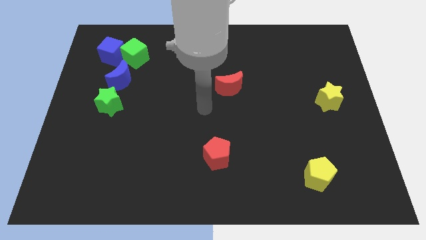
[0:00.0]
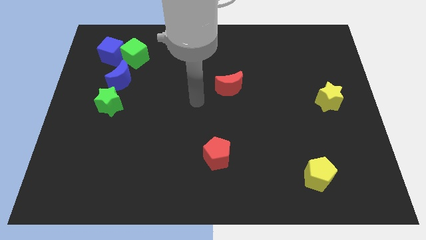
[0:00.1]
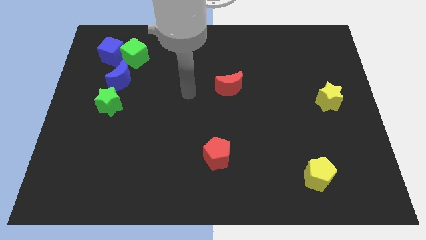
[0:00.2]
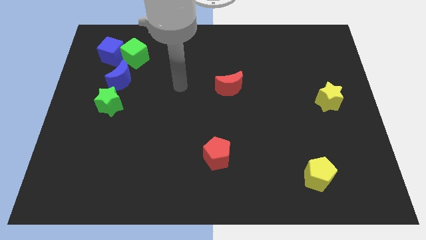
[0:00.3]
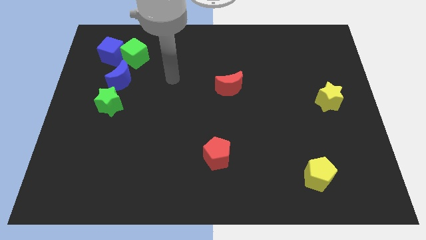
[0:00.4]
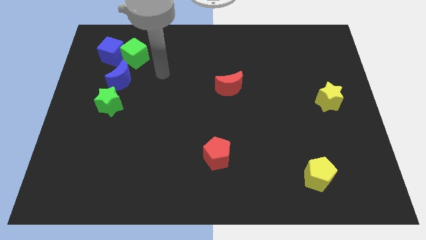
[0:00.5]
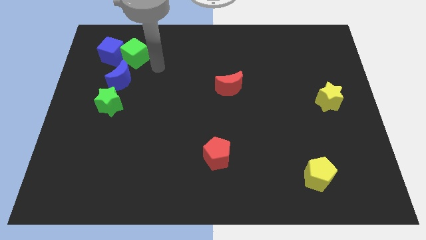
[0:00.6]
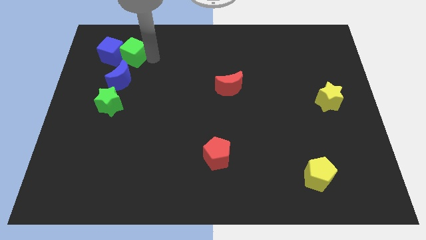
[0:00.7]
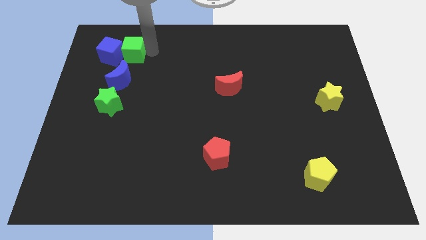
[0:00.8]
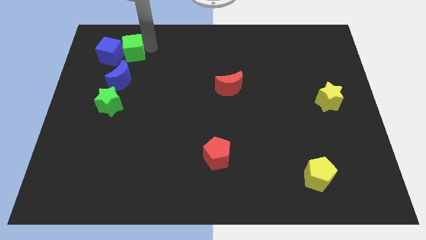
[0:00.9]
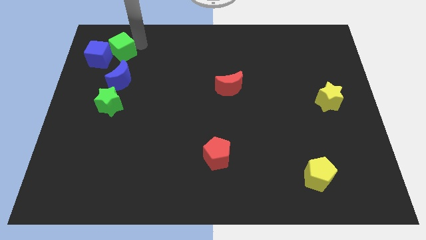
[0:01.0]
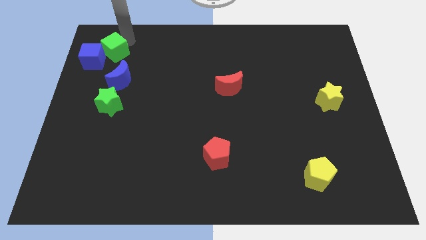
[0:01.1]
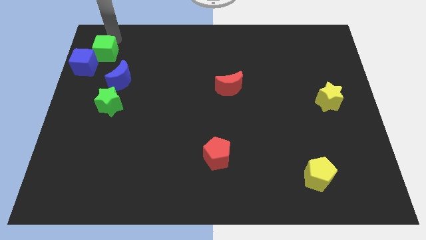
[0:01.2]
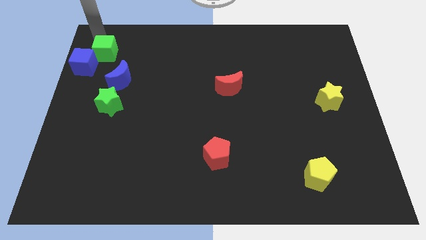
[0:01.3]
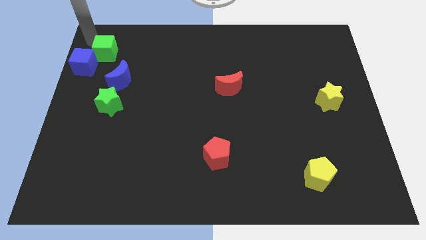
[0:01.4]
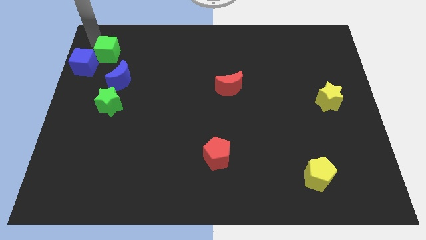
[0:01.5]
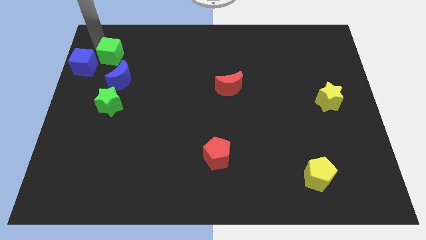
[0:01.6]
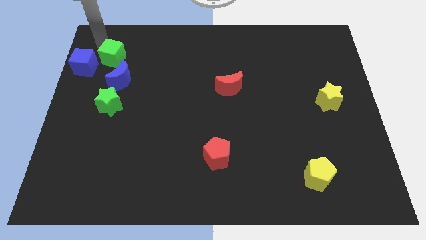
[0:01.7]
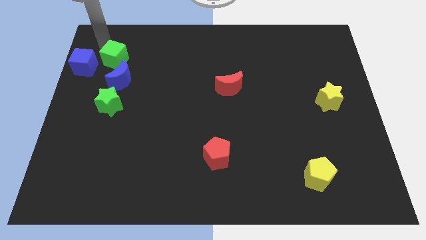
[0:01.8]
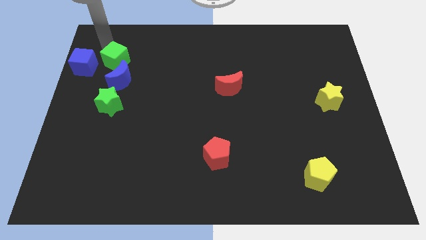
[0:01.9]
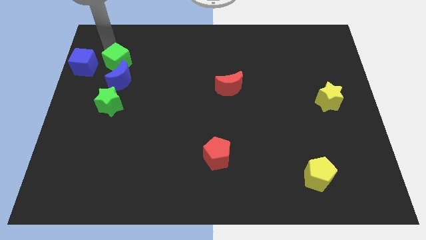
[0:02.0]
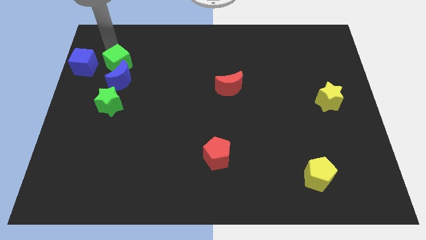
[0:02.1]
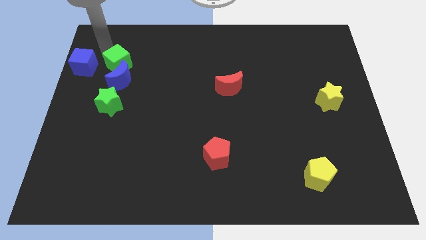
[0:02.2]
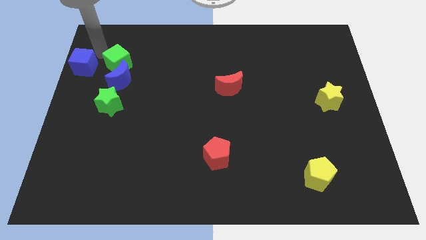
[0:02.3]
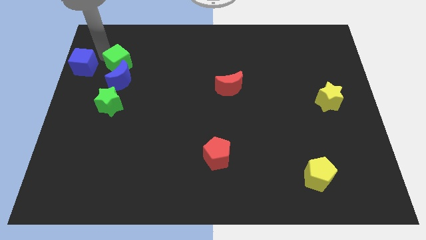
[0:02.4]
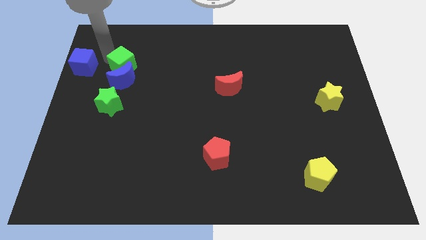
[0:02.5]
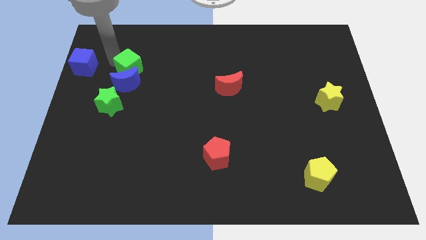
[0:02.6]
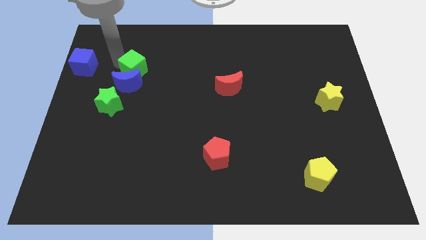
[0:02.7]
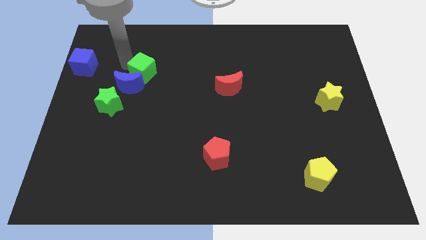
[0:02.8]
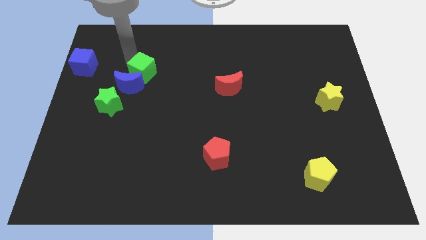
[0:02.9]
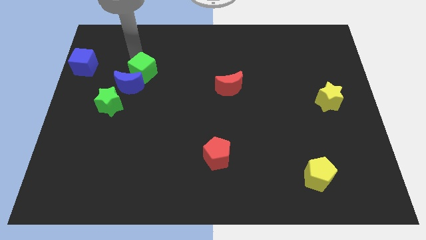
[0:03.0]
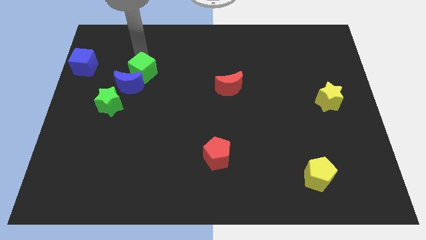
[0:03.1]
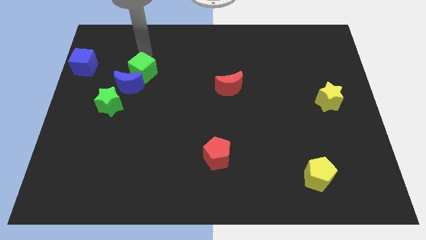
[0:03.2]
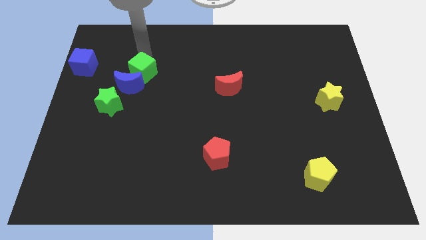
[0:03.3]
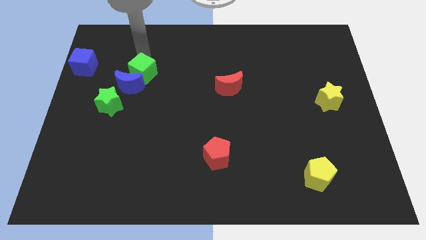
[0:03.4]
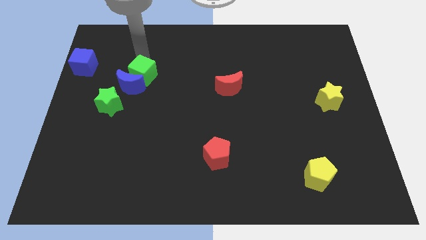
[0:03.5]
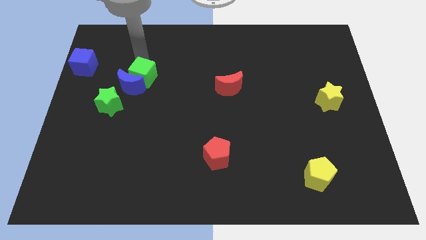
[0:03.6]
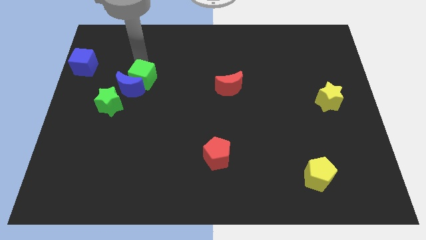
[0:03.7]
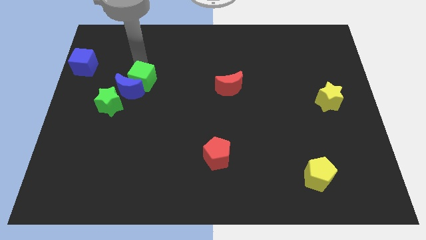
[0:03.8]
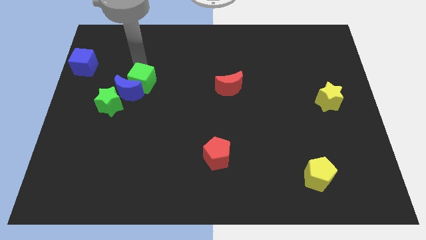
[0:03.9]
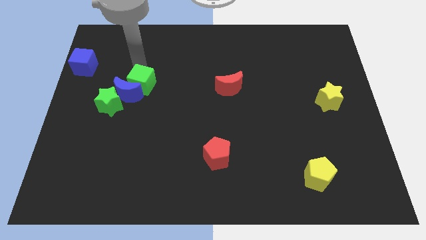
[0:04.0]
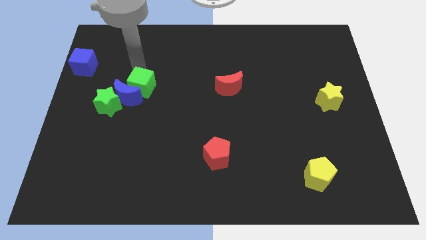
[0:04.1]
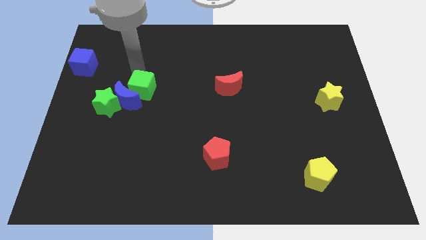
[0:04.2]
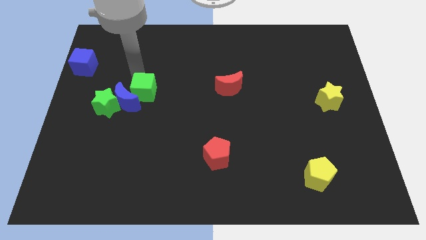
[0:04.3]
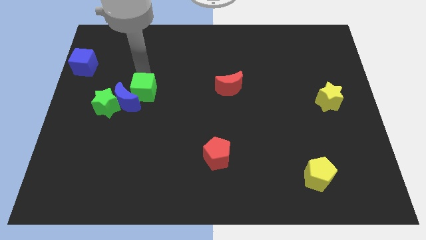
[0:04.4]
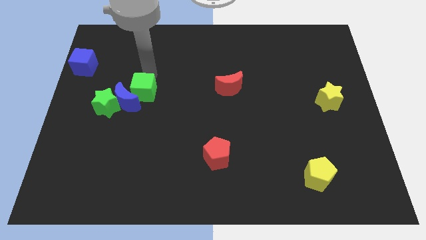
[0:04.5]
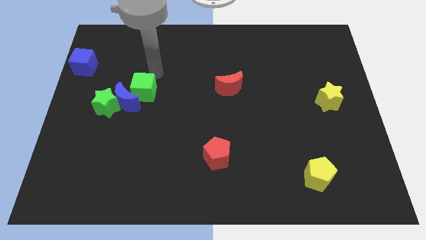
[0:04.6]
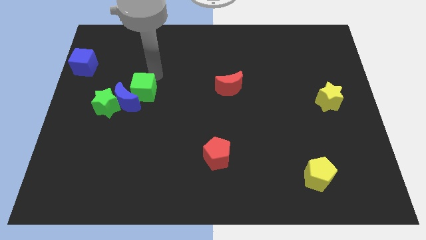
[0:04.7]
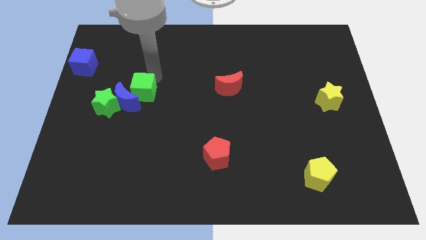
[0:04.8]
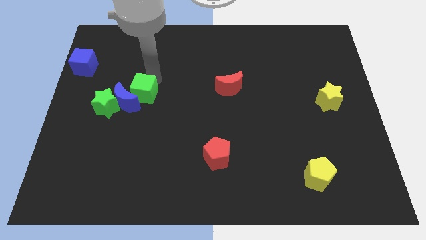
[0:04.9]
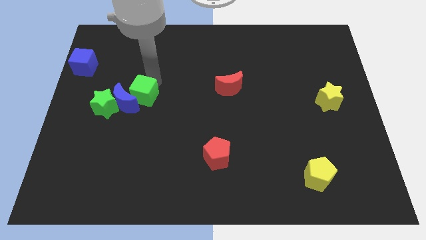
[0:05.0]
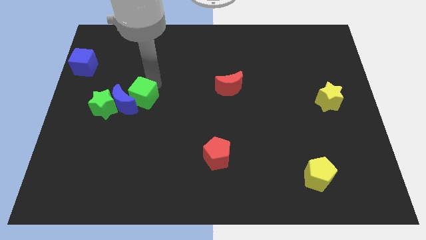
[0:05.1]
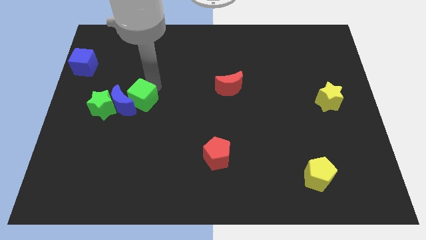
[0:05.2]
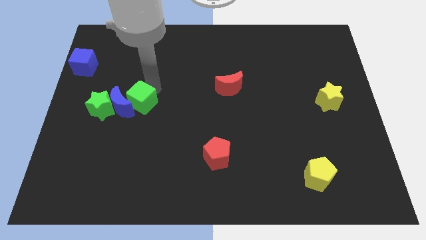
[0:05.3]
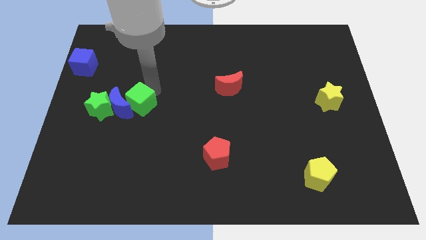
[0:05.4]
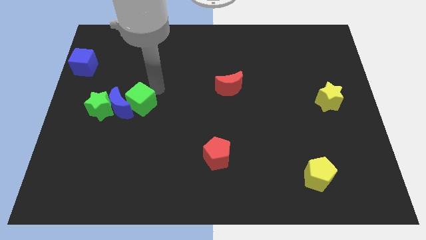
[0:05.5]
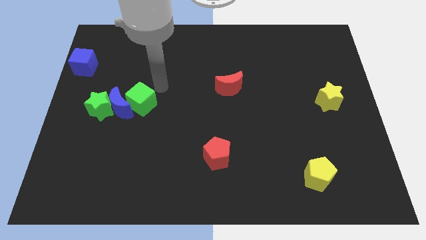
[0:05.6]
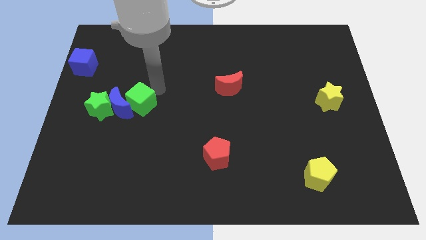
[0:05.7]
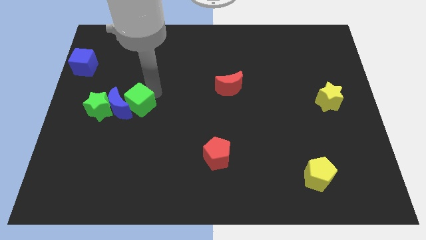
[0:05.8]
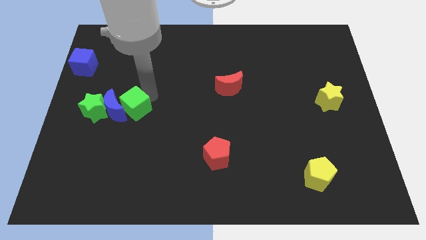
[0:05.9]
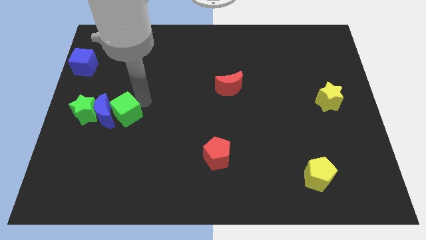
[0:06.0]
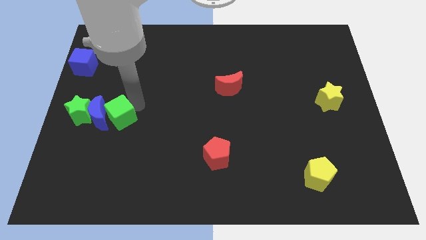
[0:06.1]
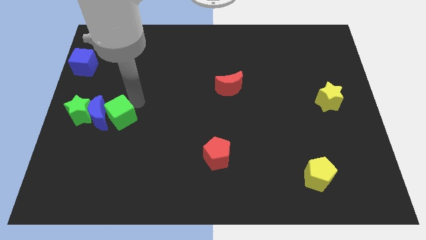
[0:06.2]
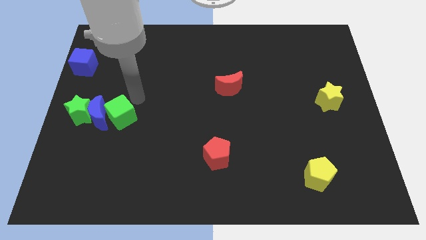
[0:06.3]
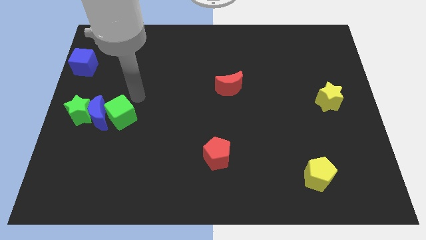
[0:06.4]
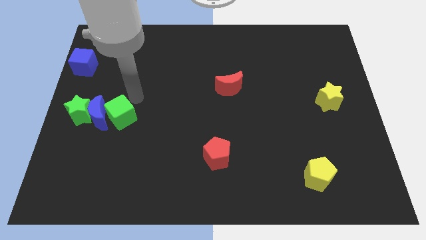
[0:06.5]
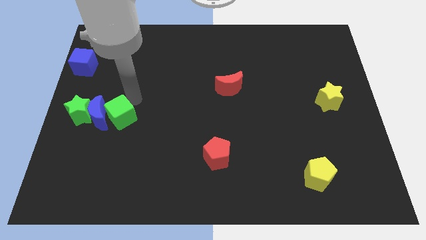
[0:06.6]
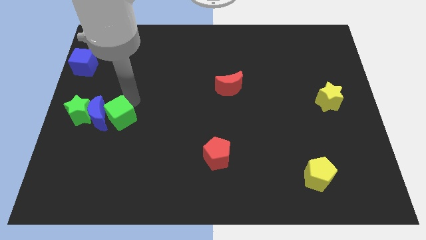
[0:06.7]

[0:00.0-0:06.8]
slide the green cube downwards

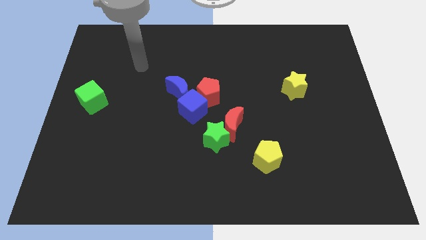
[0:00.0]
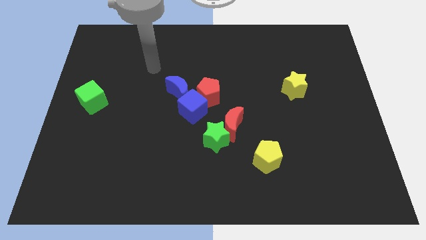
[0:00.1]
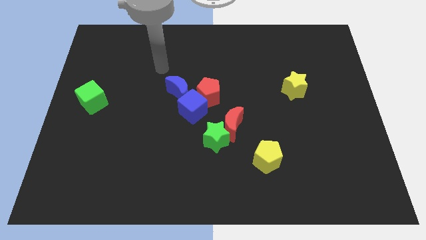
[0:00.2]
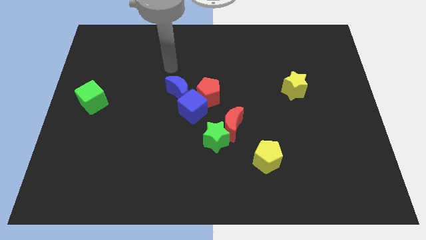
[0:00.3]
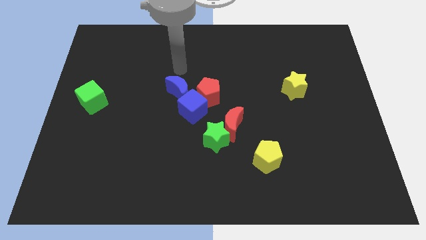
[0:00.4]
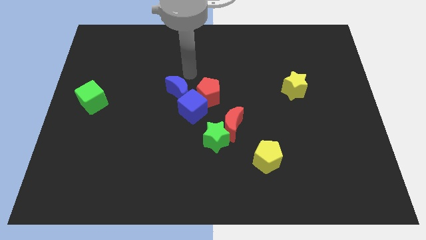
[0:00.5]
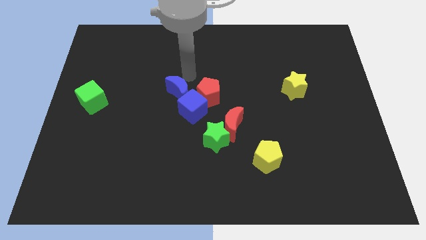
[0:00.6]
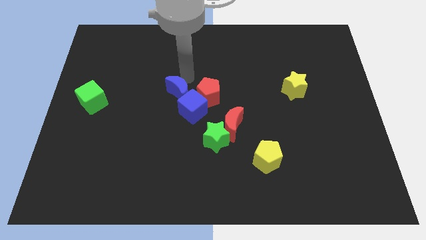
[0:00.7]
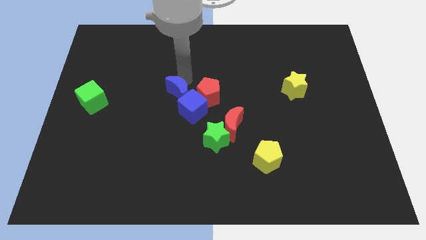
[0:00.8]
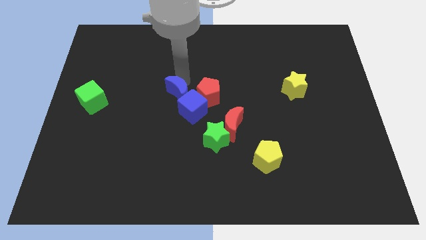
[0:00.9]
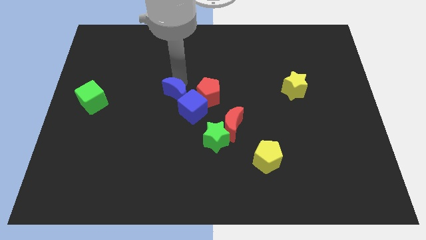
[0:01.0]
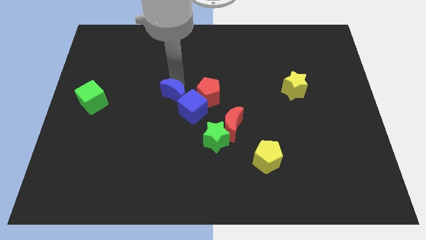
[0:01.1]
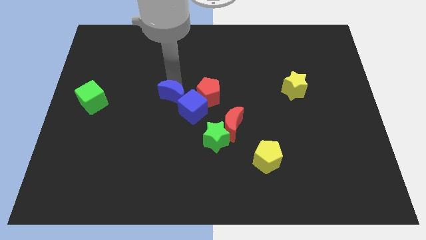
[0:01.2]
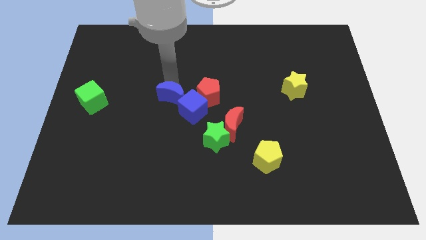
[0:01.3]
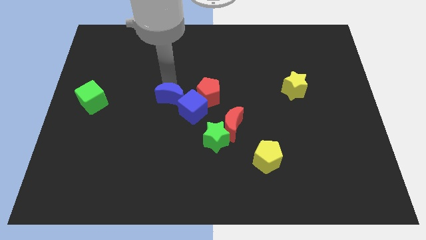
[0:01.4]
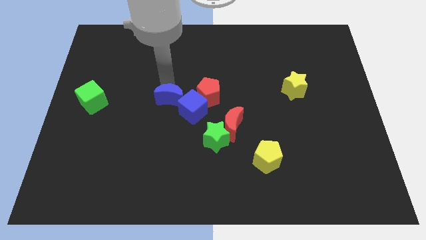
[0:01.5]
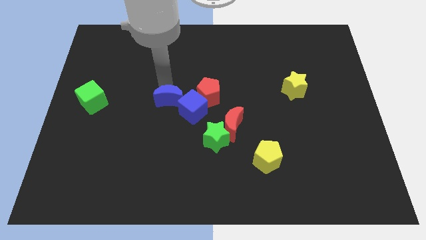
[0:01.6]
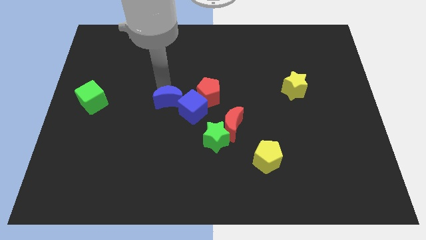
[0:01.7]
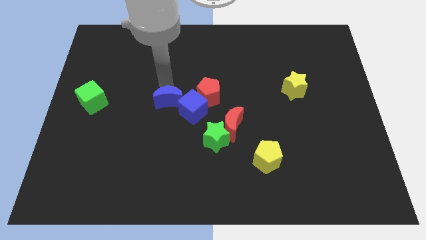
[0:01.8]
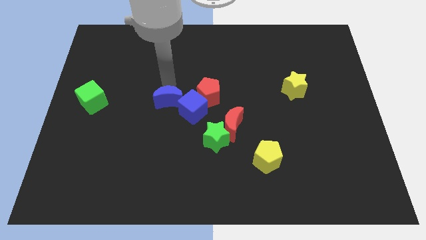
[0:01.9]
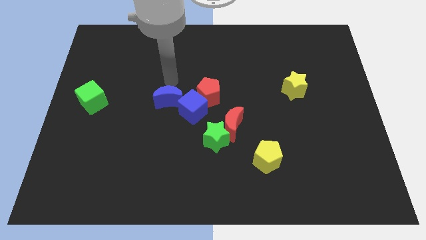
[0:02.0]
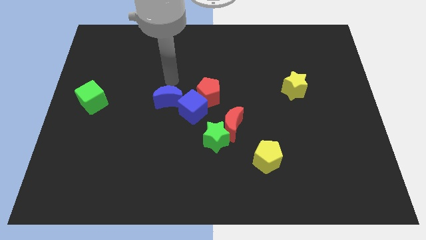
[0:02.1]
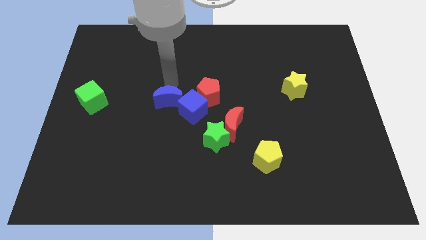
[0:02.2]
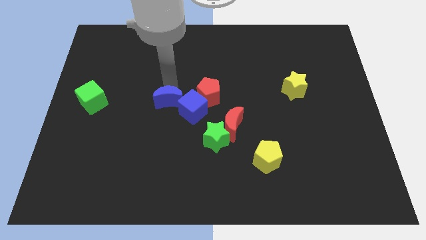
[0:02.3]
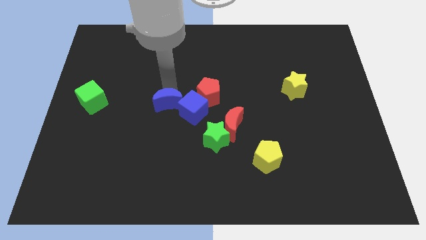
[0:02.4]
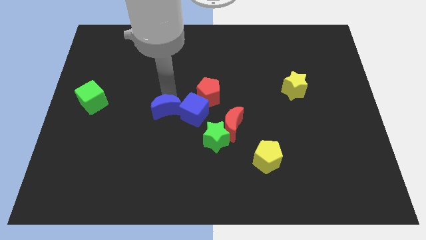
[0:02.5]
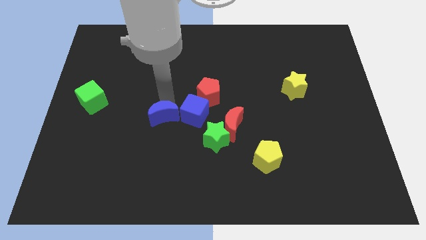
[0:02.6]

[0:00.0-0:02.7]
slide the blue moon a little down
